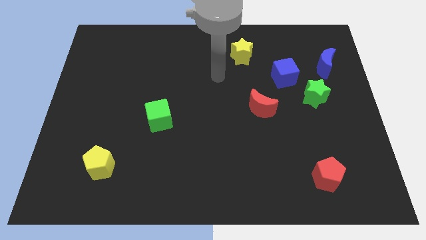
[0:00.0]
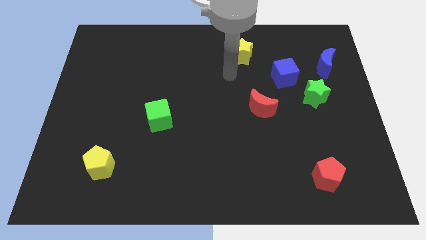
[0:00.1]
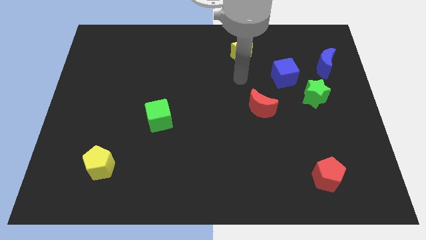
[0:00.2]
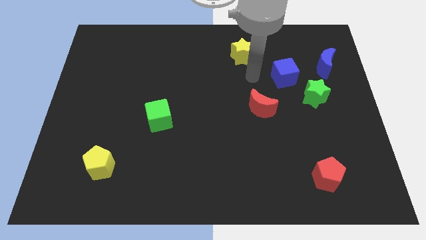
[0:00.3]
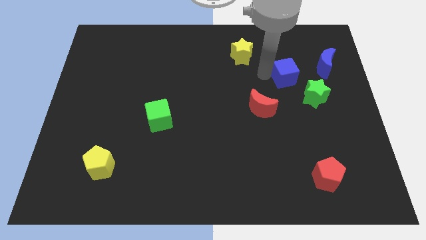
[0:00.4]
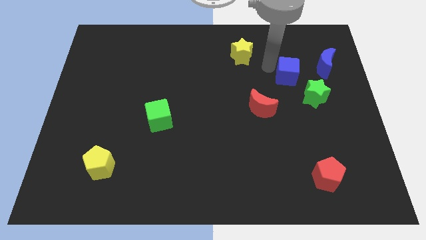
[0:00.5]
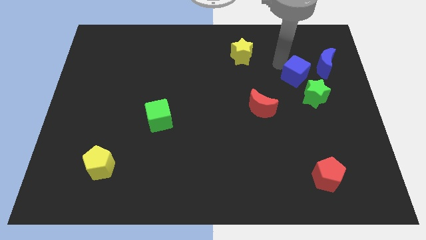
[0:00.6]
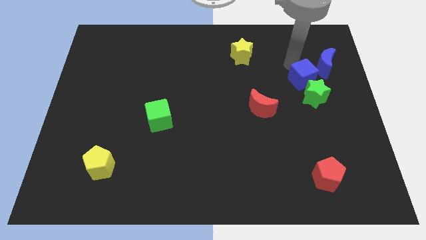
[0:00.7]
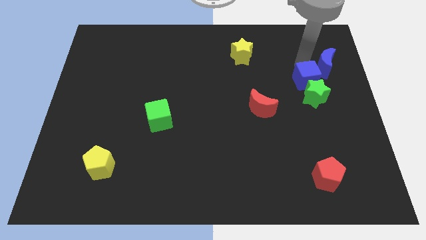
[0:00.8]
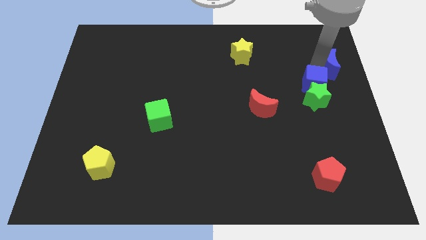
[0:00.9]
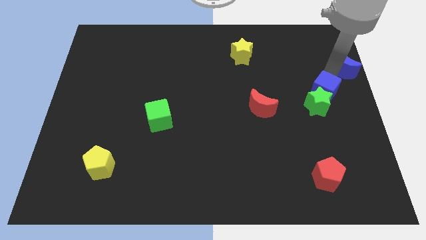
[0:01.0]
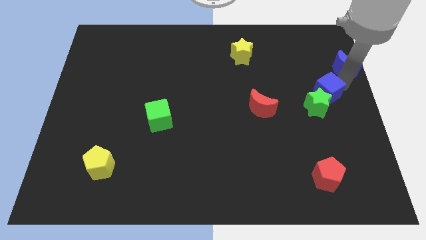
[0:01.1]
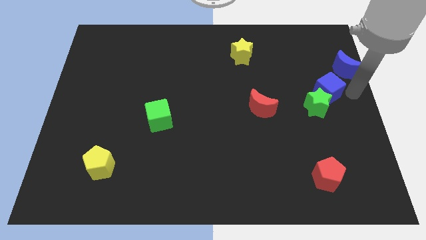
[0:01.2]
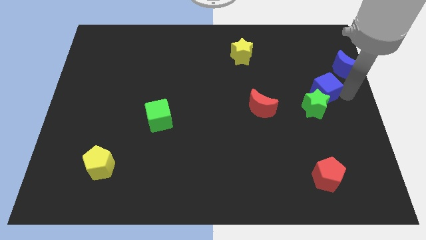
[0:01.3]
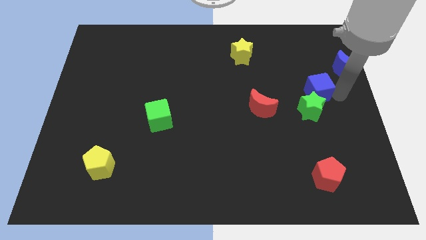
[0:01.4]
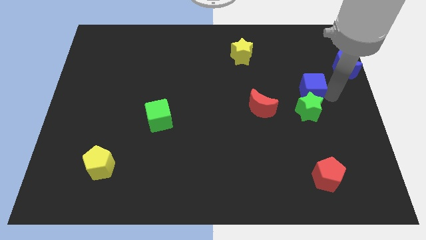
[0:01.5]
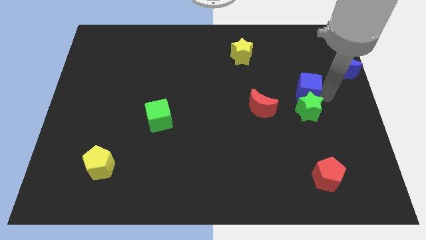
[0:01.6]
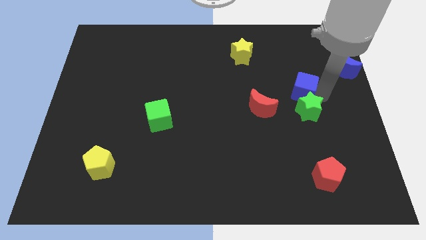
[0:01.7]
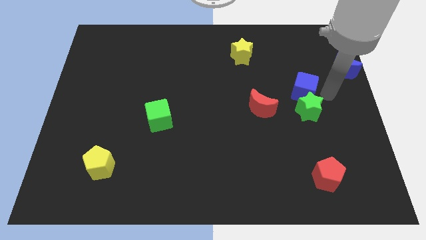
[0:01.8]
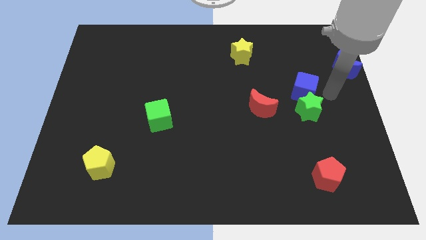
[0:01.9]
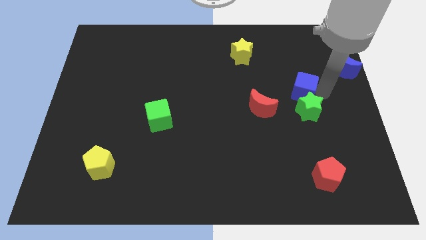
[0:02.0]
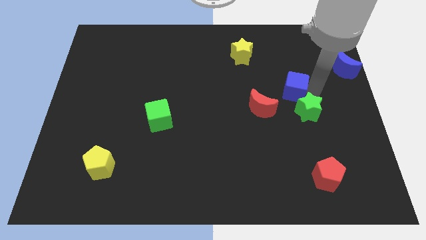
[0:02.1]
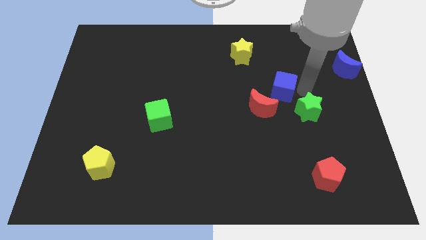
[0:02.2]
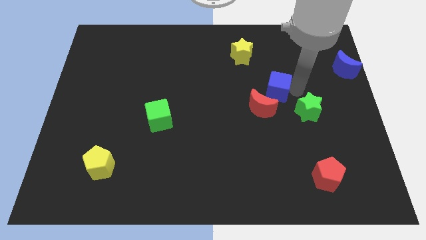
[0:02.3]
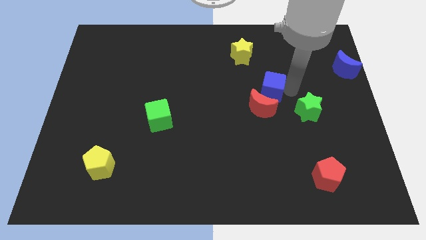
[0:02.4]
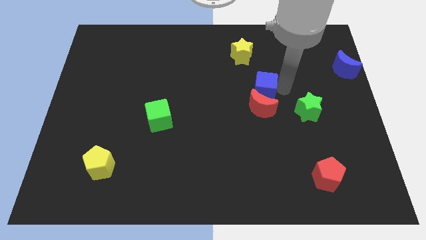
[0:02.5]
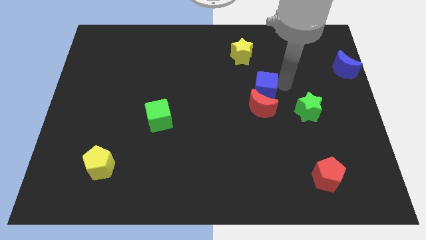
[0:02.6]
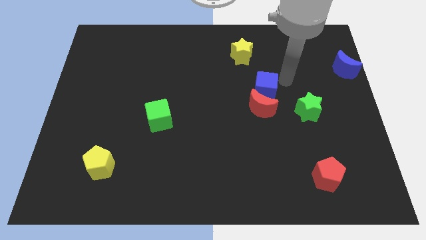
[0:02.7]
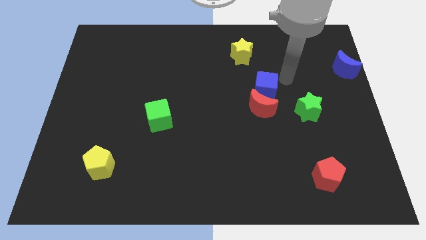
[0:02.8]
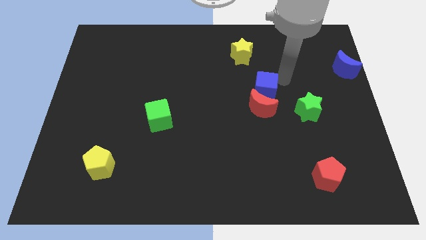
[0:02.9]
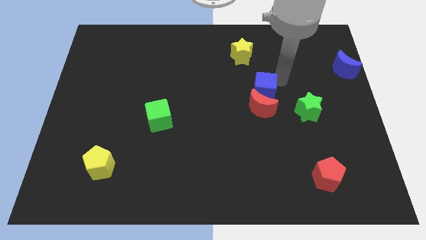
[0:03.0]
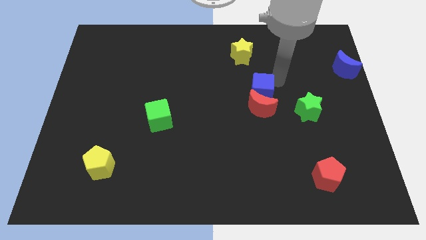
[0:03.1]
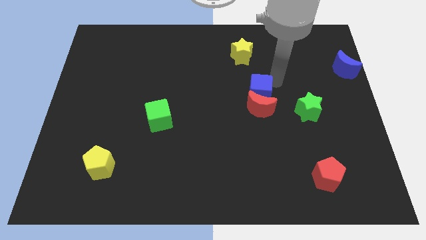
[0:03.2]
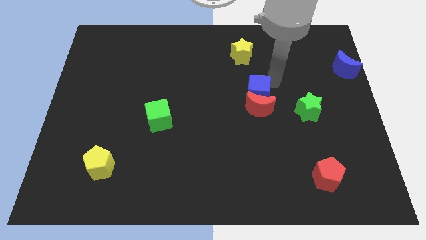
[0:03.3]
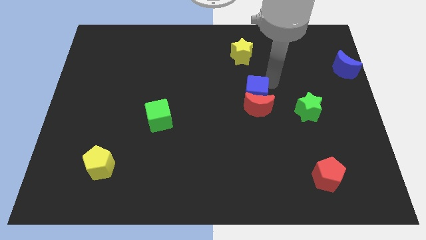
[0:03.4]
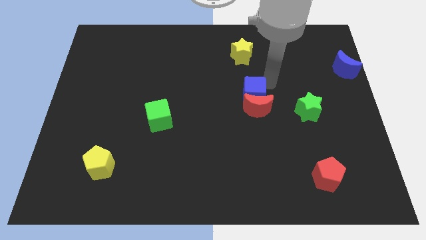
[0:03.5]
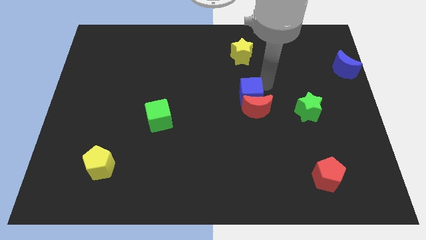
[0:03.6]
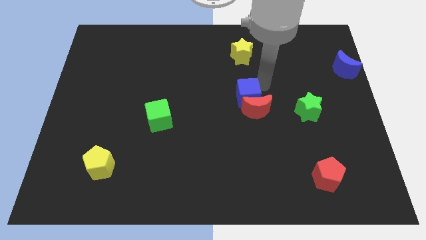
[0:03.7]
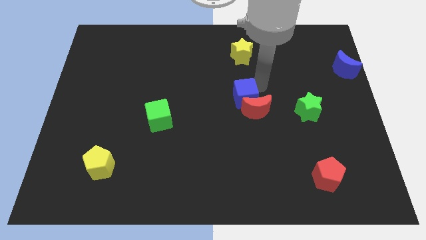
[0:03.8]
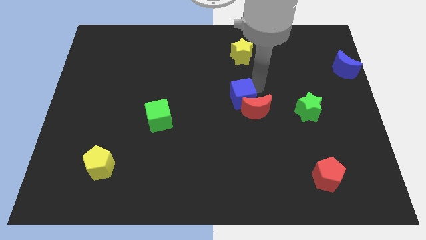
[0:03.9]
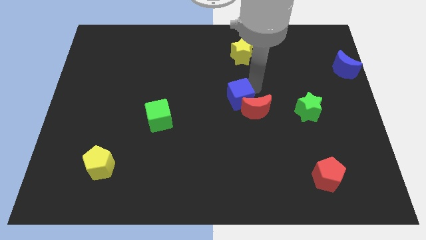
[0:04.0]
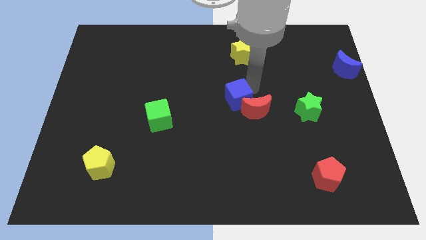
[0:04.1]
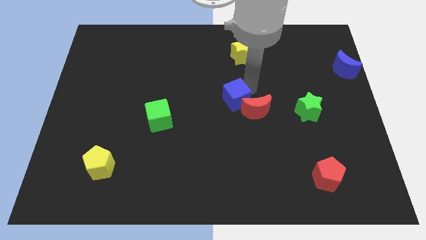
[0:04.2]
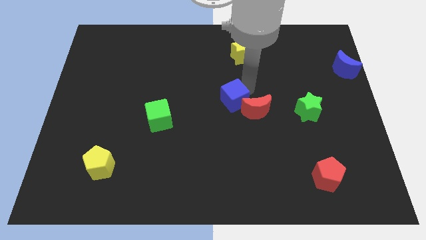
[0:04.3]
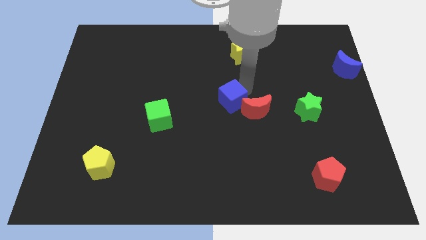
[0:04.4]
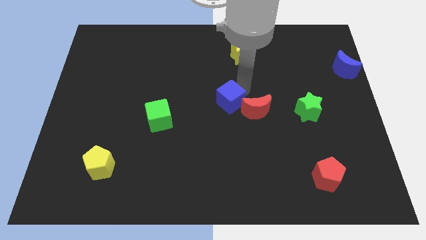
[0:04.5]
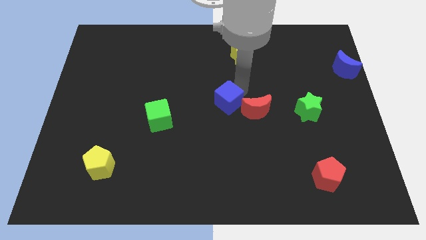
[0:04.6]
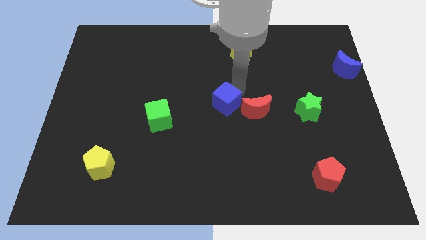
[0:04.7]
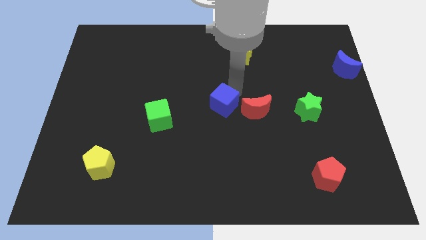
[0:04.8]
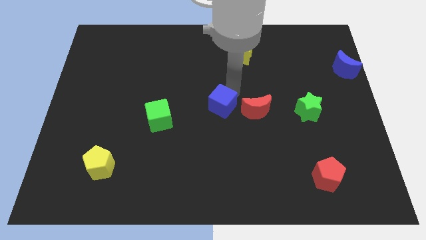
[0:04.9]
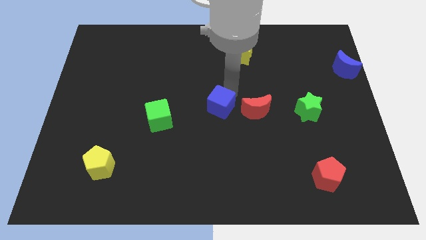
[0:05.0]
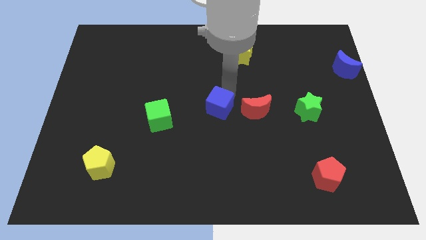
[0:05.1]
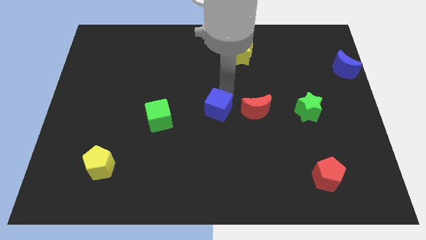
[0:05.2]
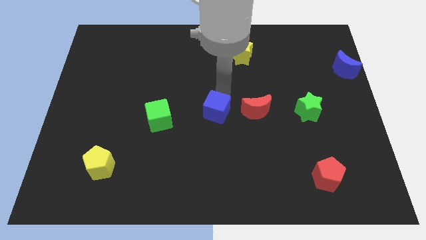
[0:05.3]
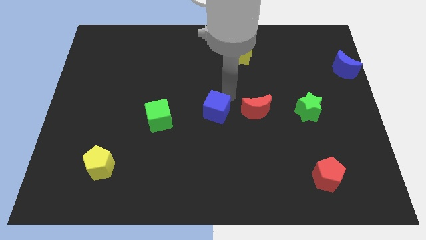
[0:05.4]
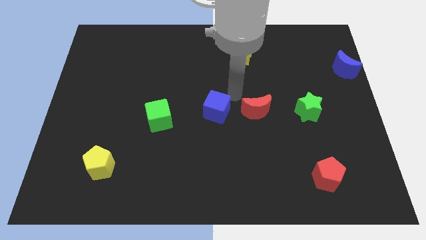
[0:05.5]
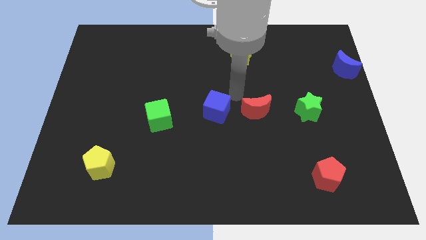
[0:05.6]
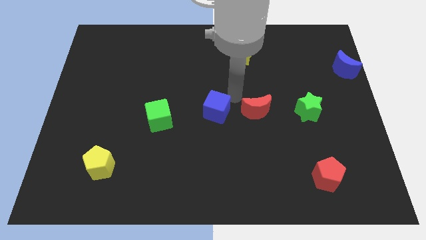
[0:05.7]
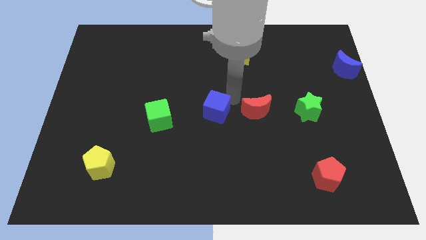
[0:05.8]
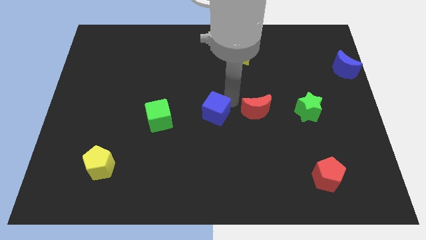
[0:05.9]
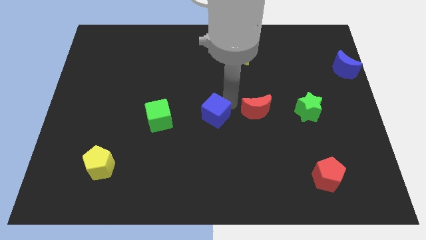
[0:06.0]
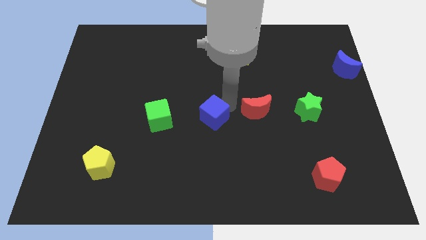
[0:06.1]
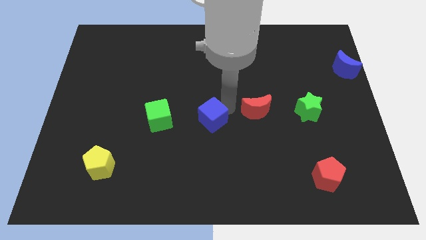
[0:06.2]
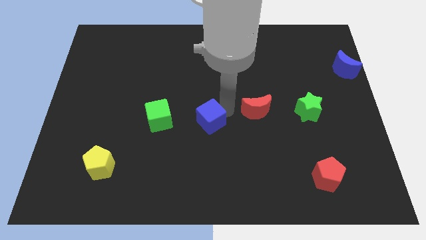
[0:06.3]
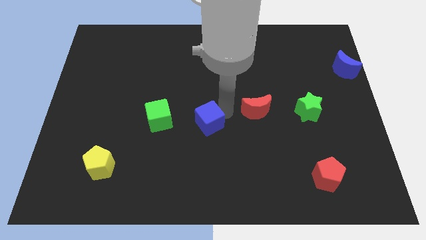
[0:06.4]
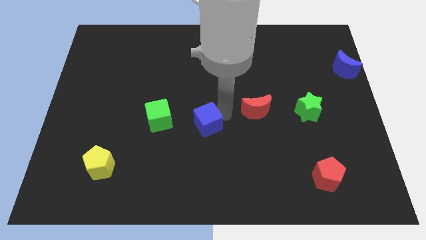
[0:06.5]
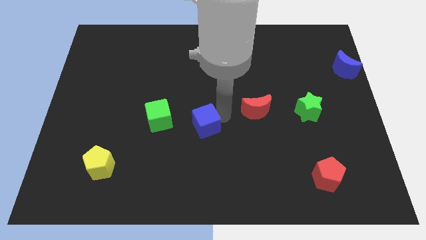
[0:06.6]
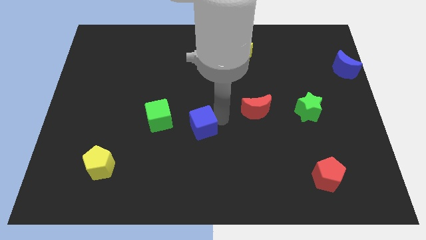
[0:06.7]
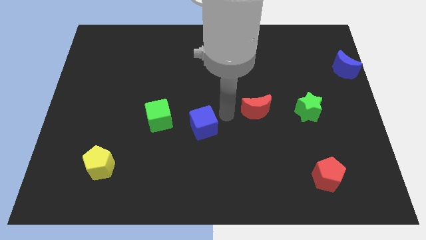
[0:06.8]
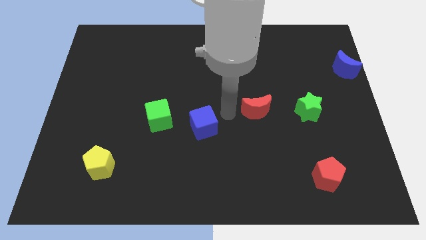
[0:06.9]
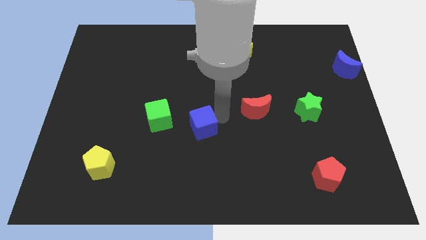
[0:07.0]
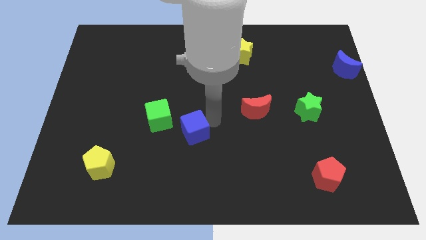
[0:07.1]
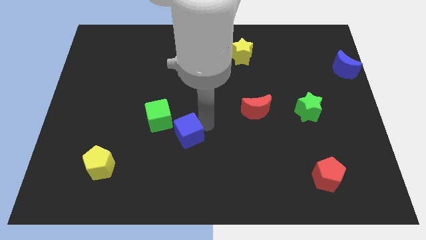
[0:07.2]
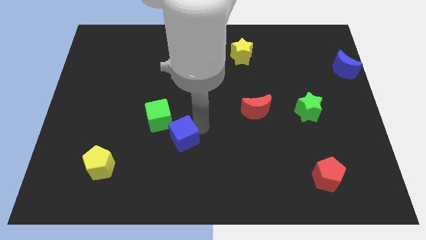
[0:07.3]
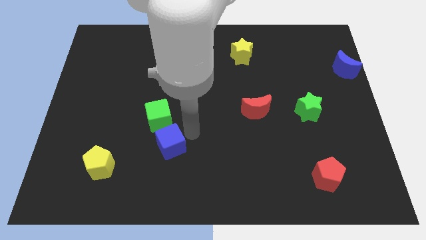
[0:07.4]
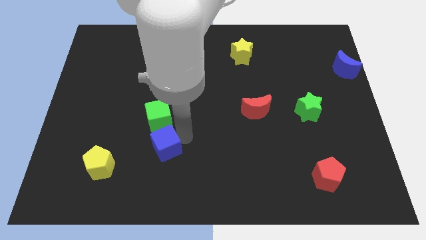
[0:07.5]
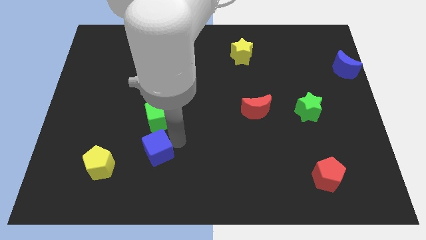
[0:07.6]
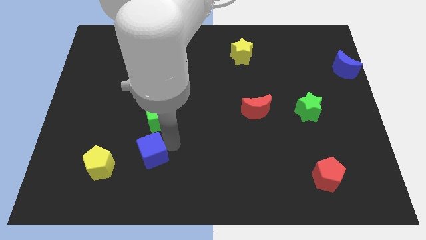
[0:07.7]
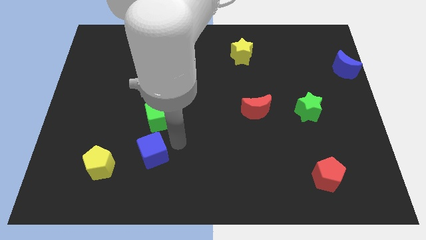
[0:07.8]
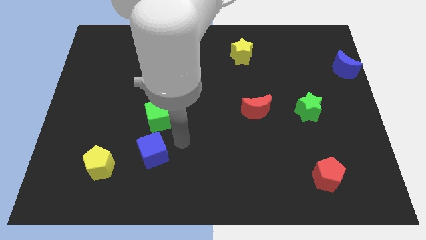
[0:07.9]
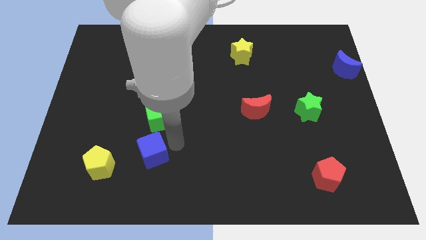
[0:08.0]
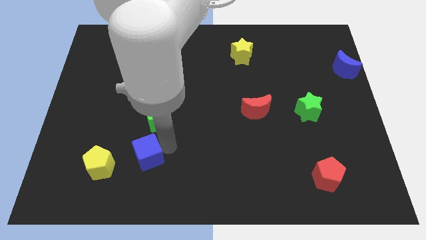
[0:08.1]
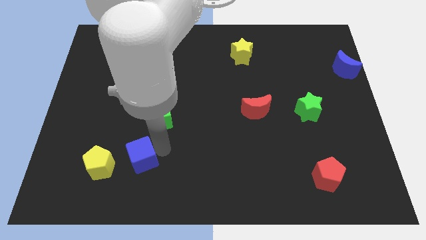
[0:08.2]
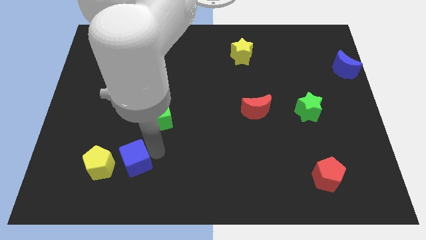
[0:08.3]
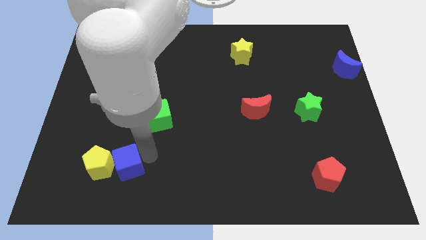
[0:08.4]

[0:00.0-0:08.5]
put the blue cube towards the yellow pentagon
